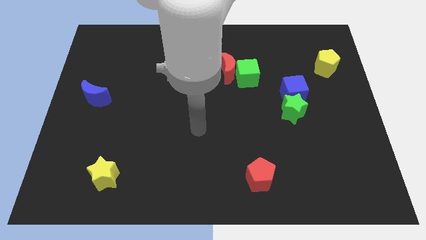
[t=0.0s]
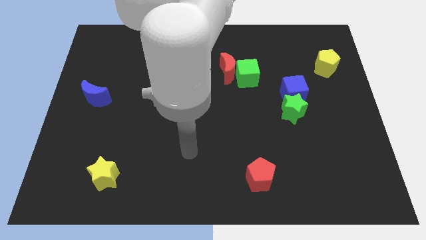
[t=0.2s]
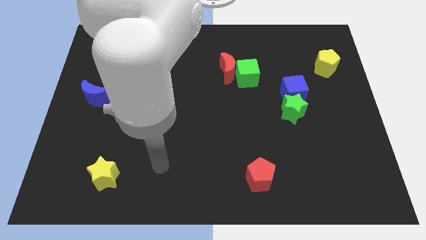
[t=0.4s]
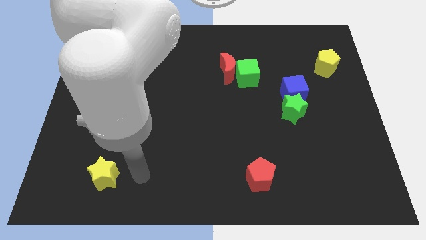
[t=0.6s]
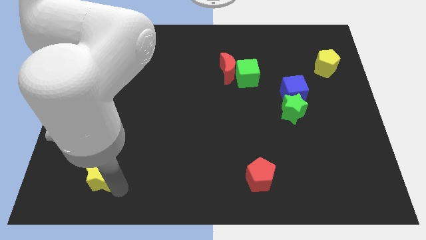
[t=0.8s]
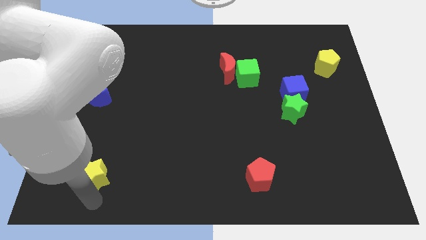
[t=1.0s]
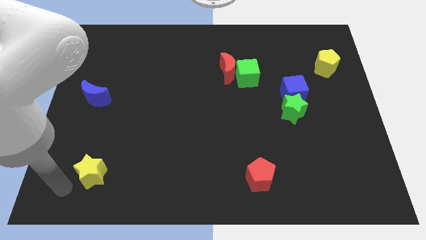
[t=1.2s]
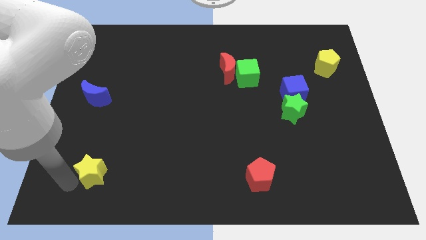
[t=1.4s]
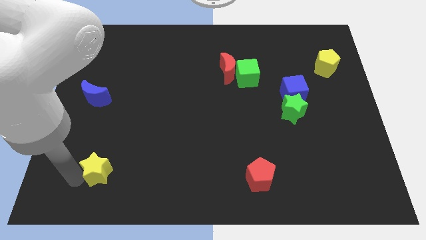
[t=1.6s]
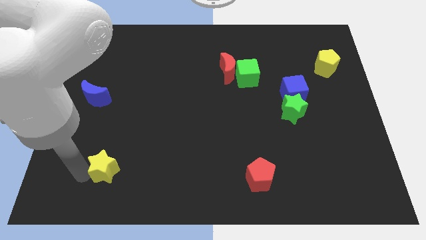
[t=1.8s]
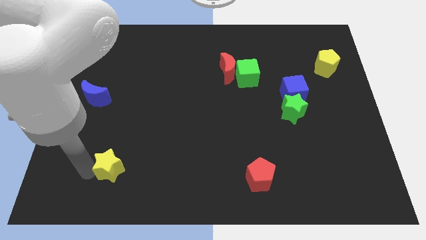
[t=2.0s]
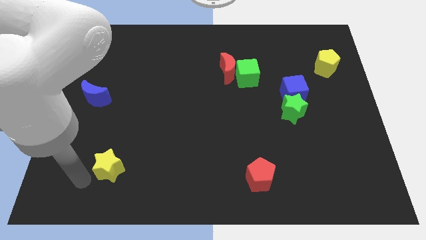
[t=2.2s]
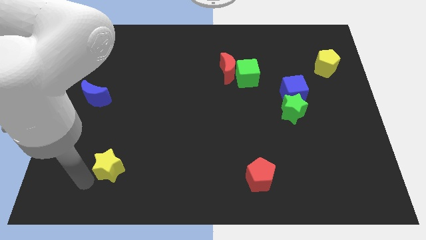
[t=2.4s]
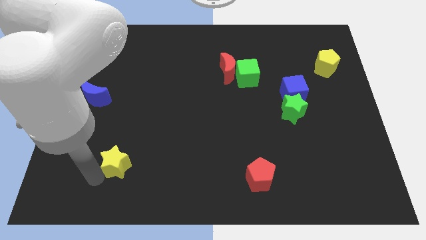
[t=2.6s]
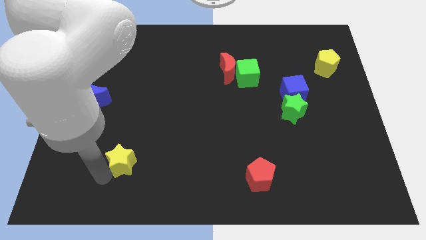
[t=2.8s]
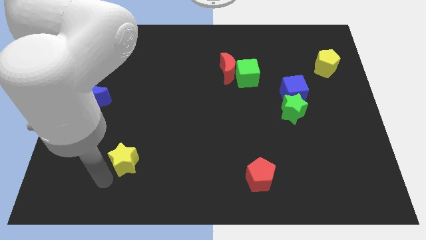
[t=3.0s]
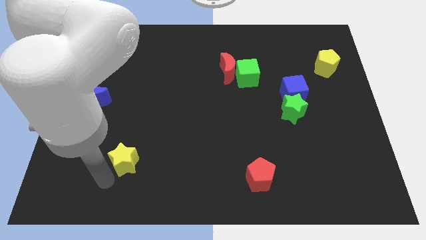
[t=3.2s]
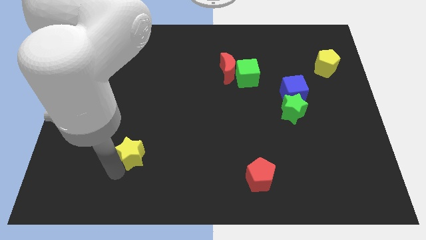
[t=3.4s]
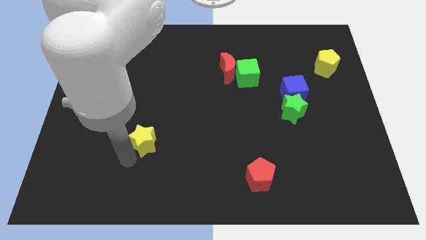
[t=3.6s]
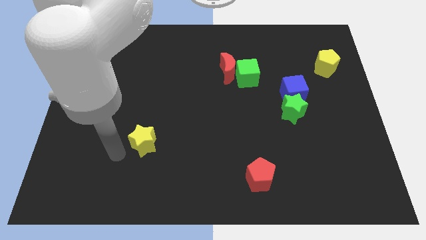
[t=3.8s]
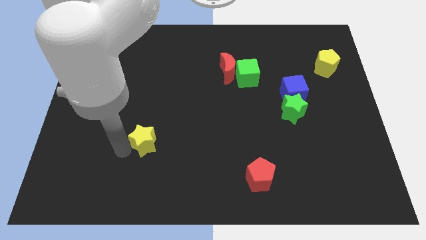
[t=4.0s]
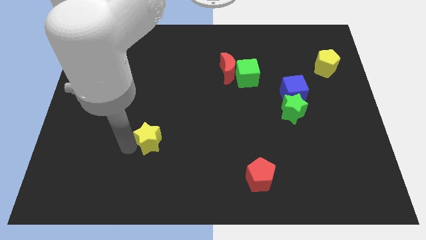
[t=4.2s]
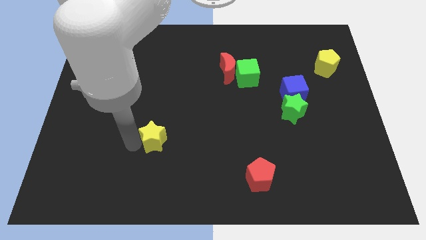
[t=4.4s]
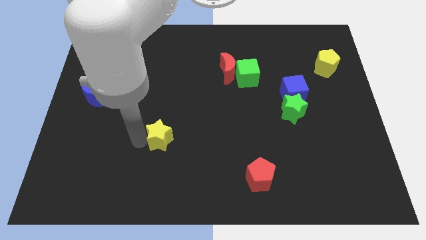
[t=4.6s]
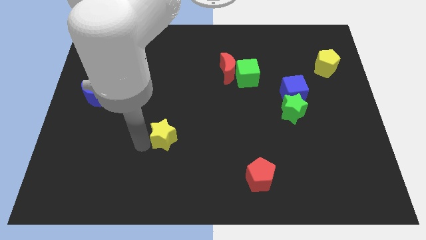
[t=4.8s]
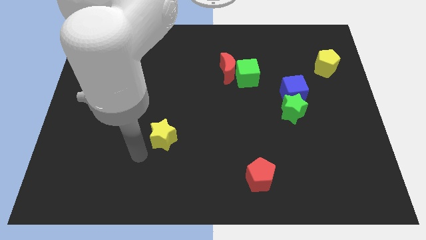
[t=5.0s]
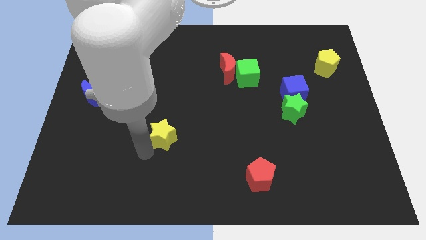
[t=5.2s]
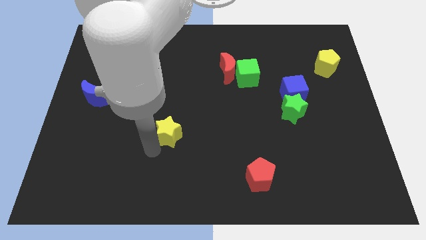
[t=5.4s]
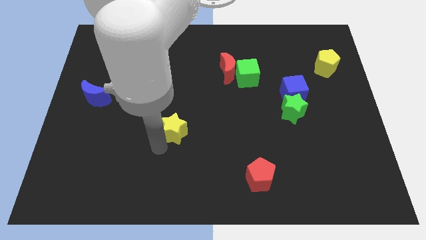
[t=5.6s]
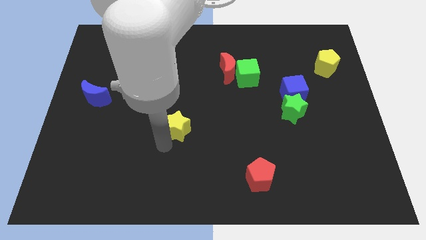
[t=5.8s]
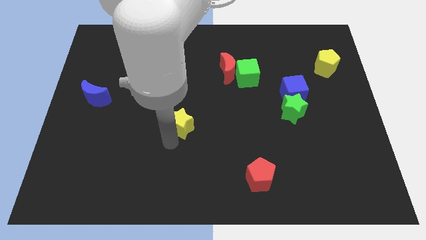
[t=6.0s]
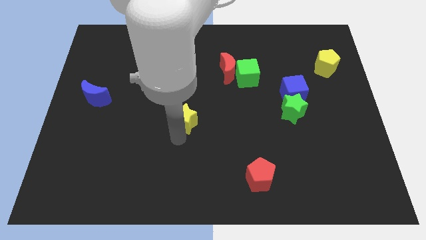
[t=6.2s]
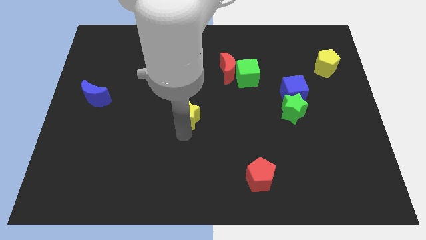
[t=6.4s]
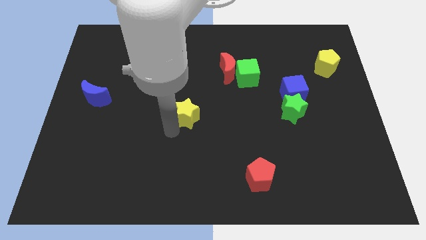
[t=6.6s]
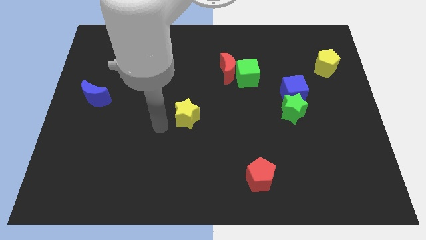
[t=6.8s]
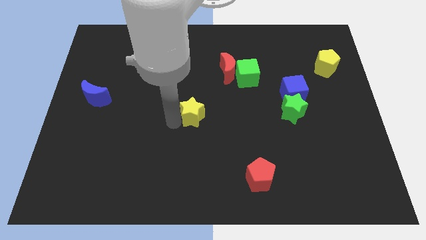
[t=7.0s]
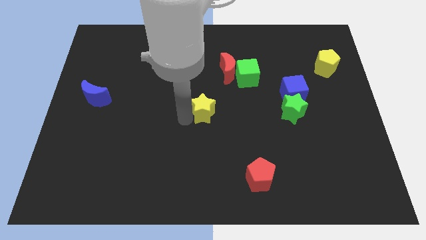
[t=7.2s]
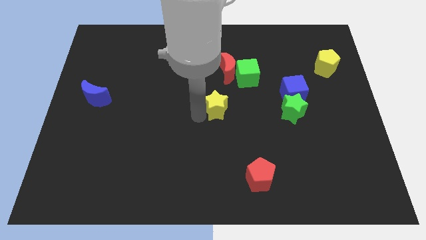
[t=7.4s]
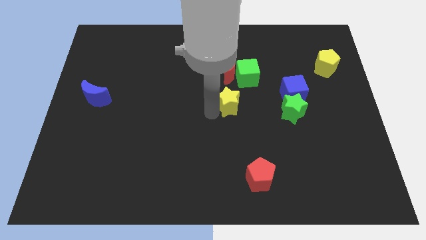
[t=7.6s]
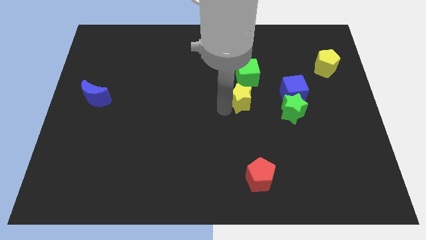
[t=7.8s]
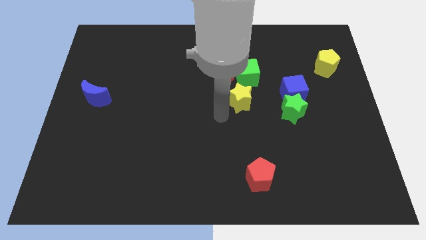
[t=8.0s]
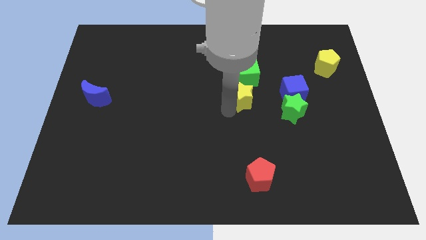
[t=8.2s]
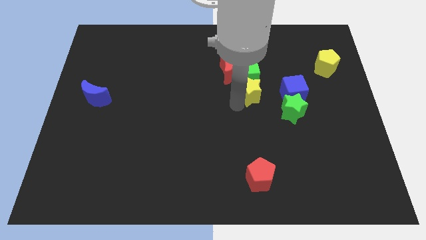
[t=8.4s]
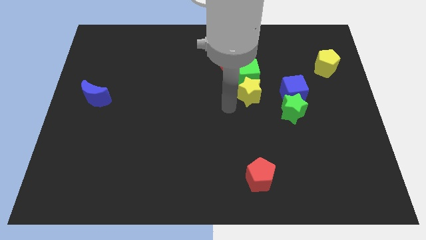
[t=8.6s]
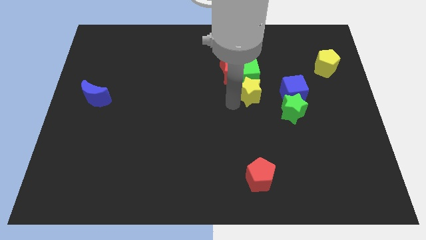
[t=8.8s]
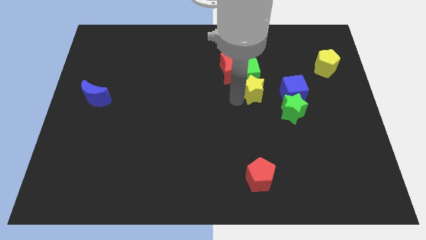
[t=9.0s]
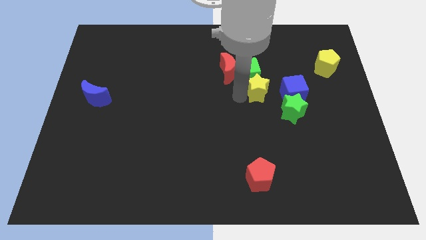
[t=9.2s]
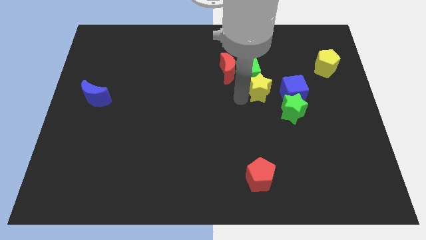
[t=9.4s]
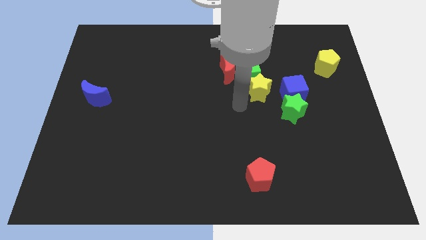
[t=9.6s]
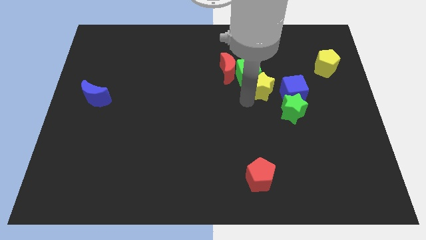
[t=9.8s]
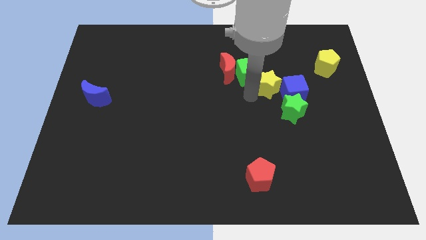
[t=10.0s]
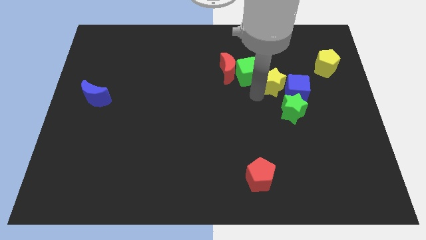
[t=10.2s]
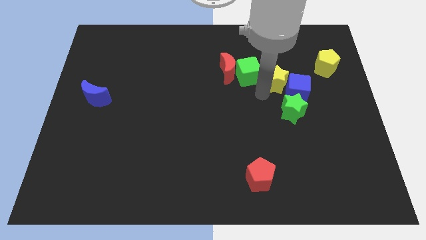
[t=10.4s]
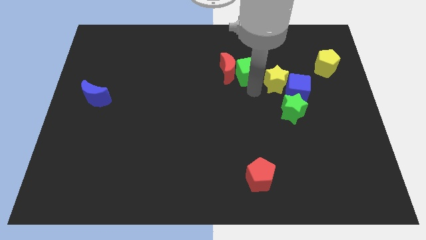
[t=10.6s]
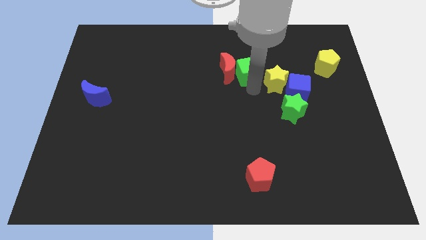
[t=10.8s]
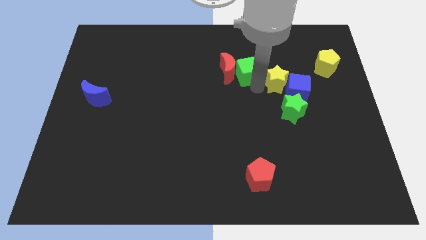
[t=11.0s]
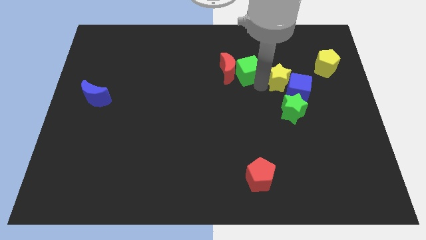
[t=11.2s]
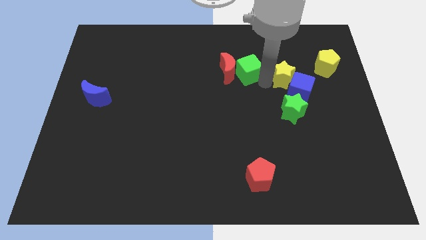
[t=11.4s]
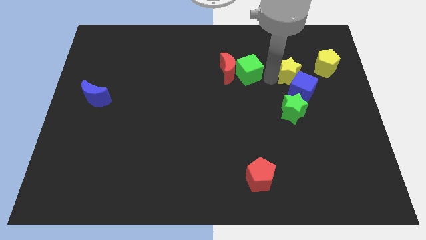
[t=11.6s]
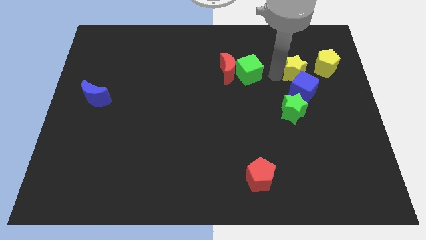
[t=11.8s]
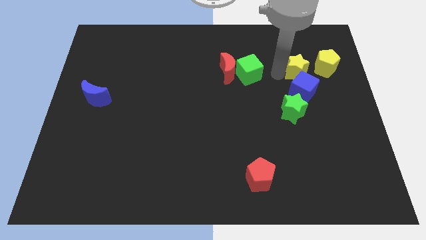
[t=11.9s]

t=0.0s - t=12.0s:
slide the yellow star diagonally up and to the right of the blue cube

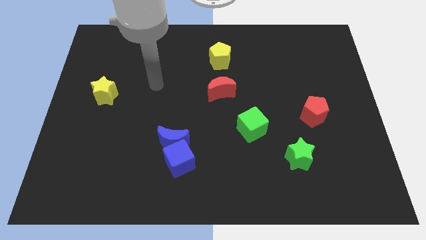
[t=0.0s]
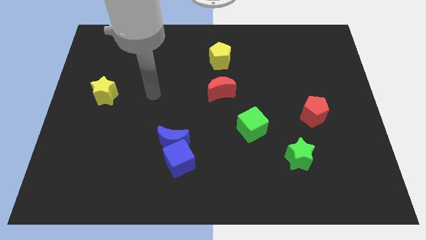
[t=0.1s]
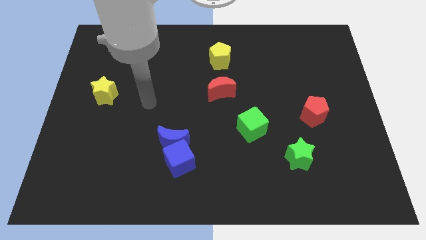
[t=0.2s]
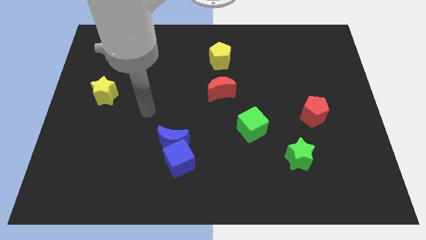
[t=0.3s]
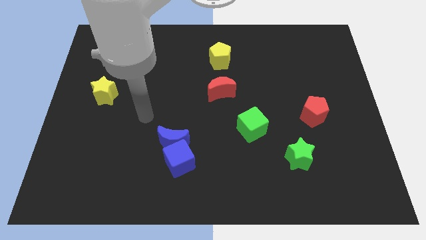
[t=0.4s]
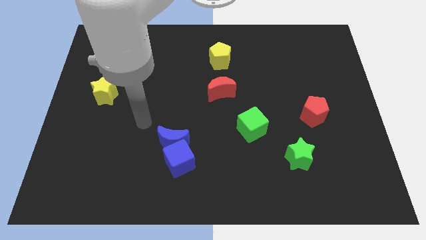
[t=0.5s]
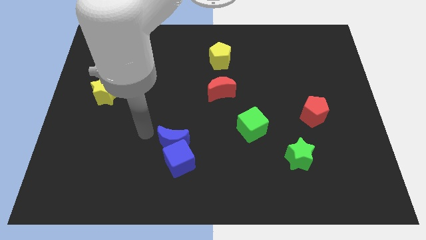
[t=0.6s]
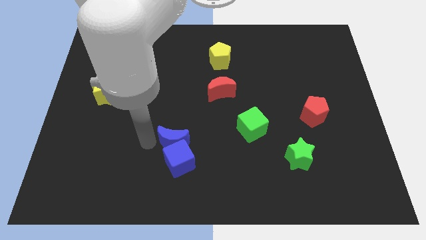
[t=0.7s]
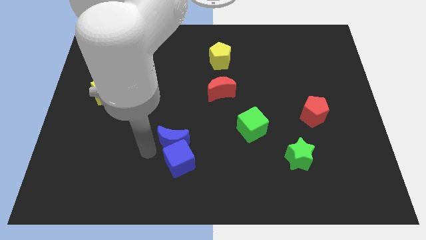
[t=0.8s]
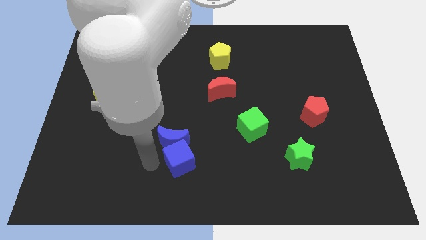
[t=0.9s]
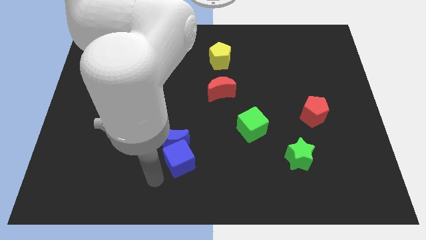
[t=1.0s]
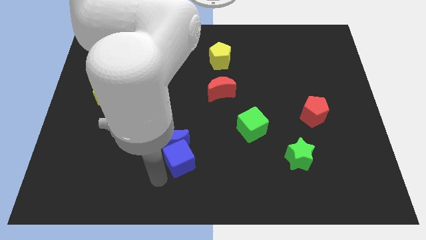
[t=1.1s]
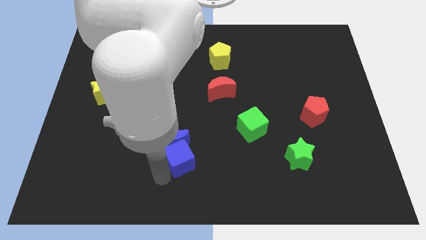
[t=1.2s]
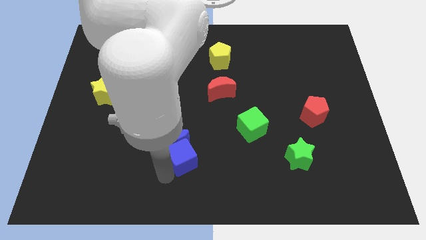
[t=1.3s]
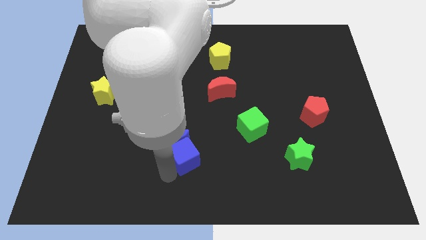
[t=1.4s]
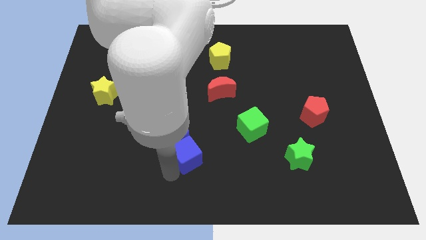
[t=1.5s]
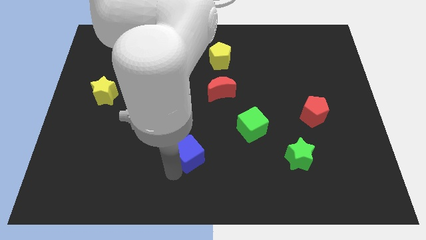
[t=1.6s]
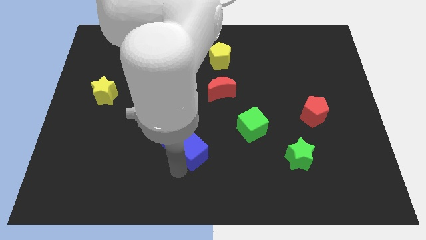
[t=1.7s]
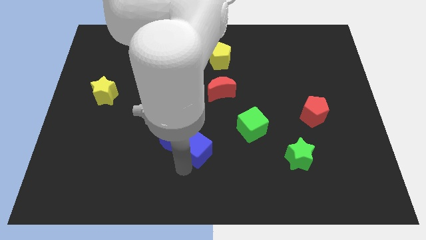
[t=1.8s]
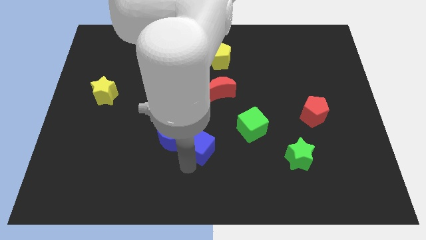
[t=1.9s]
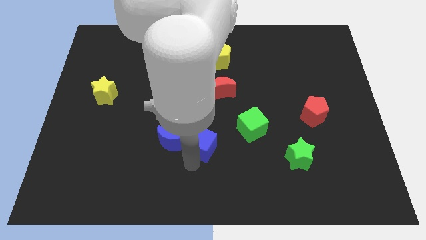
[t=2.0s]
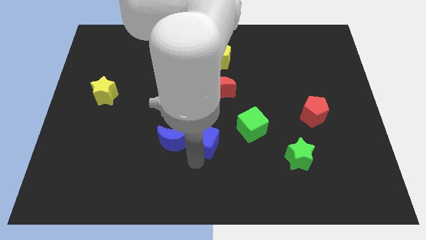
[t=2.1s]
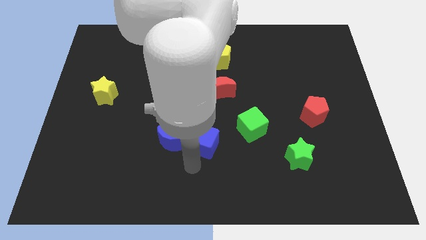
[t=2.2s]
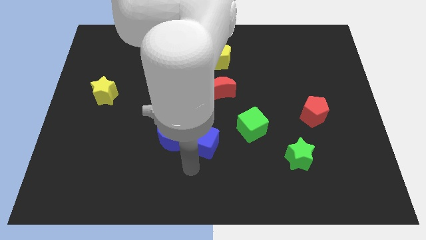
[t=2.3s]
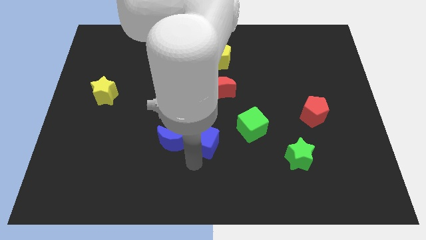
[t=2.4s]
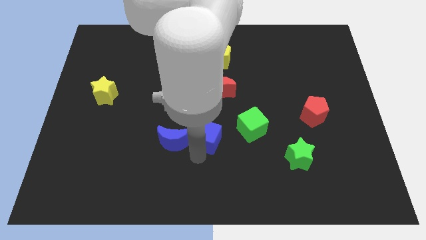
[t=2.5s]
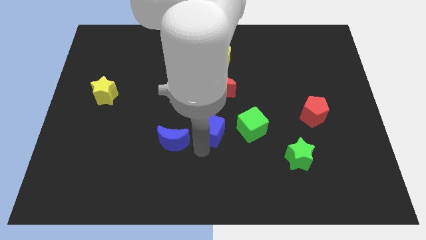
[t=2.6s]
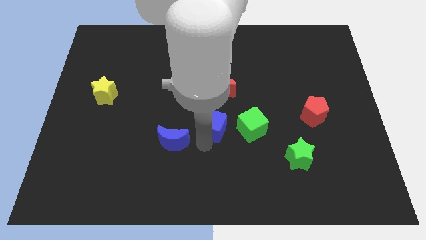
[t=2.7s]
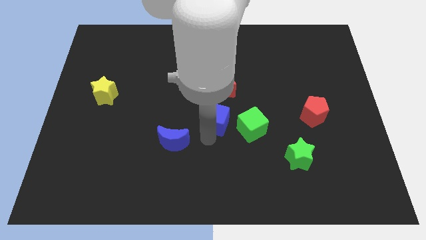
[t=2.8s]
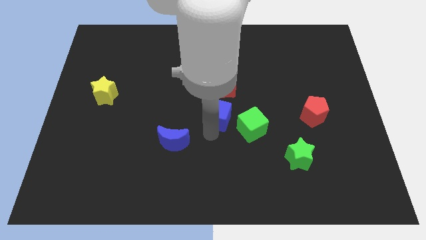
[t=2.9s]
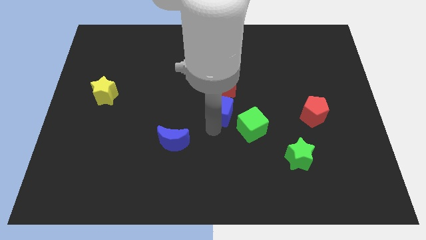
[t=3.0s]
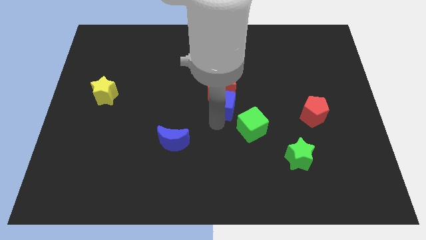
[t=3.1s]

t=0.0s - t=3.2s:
put the blue cube to the bottom side of the yellow pentagon
